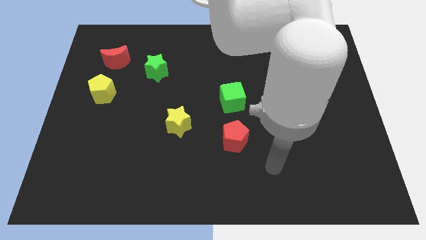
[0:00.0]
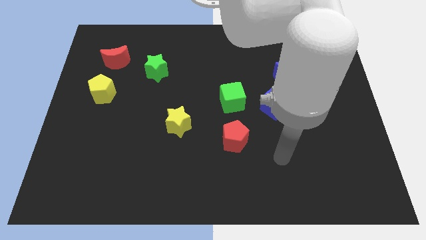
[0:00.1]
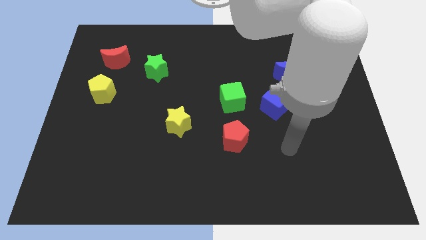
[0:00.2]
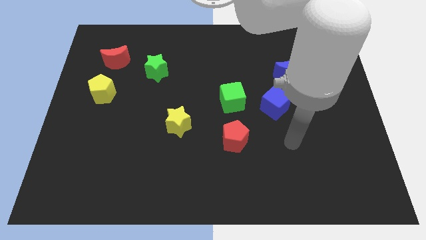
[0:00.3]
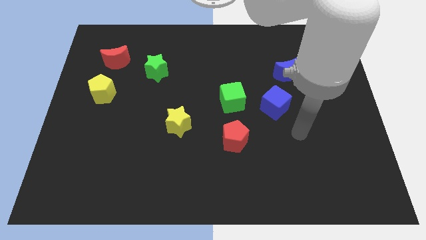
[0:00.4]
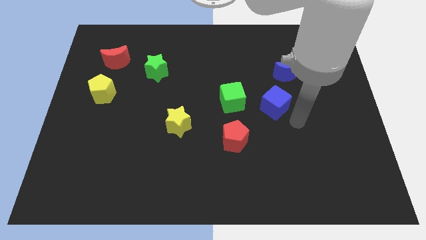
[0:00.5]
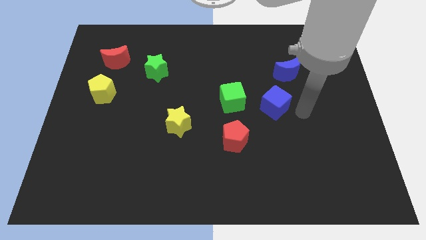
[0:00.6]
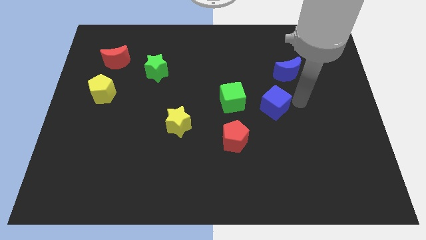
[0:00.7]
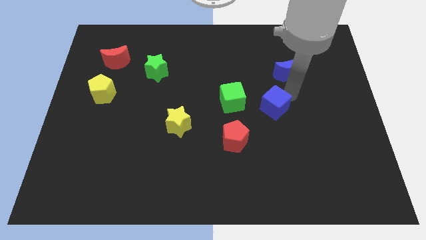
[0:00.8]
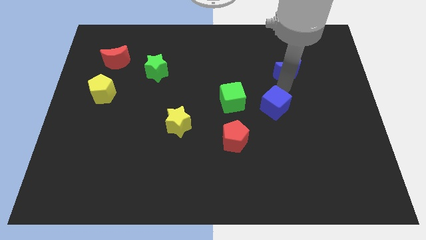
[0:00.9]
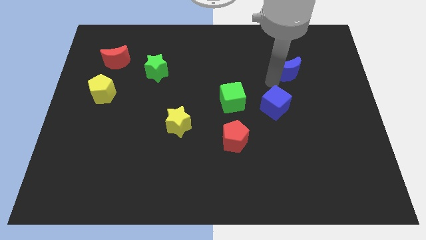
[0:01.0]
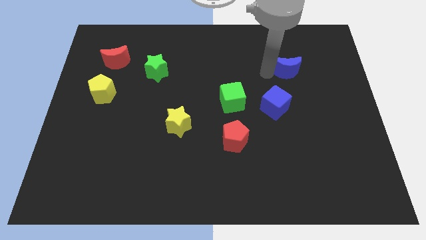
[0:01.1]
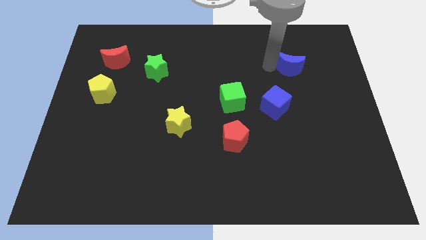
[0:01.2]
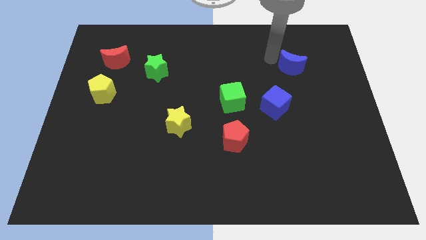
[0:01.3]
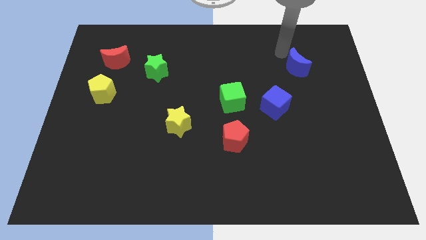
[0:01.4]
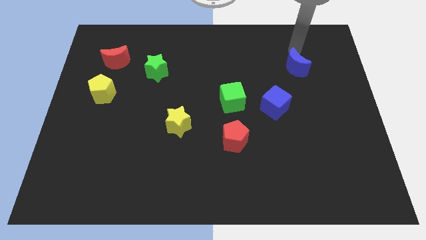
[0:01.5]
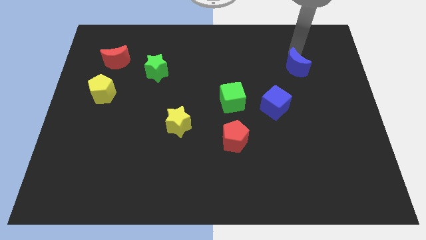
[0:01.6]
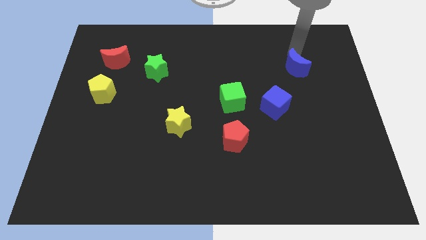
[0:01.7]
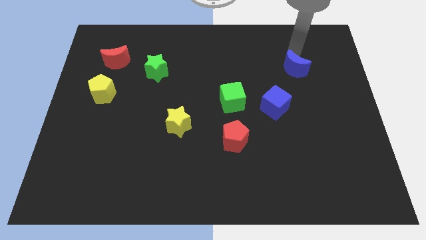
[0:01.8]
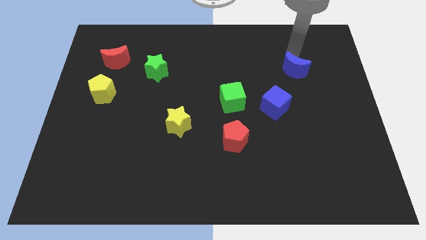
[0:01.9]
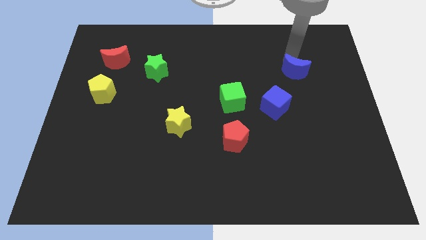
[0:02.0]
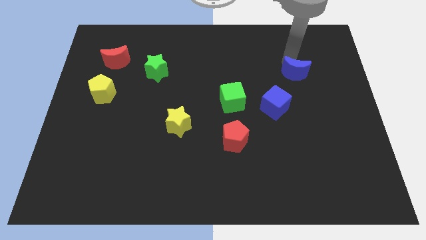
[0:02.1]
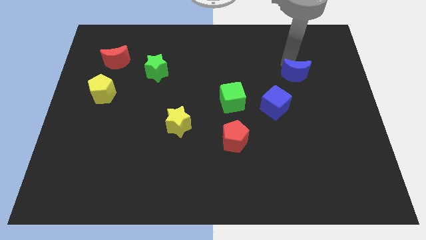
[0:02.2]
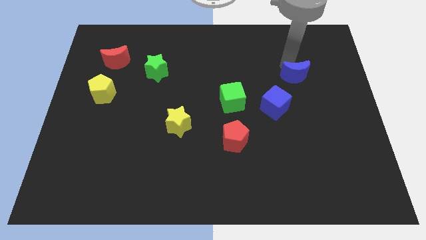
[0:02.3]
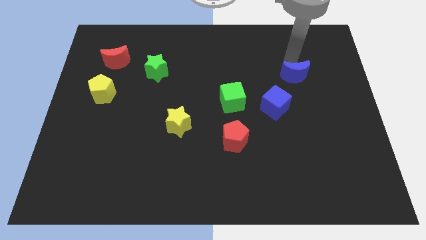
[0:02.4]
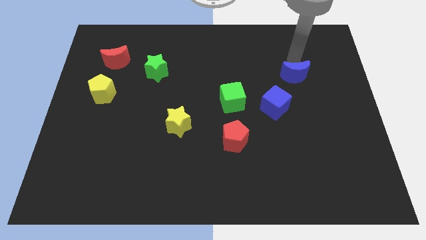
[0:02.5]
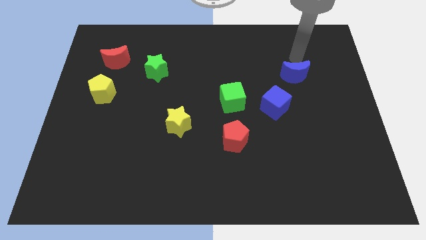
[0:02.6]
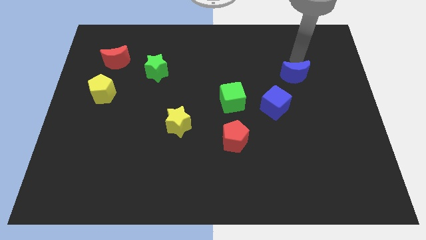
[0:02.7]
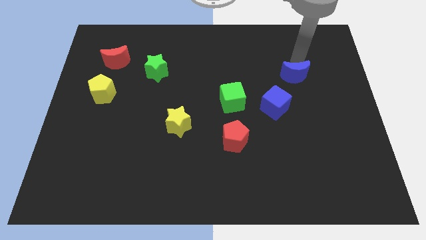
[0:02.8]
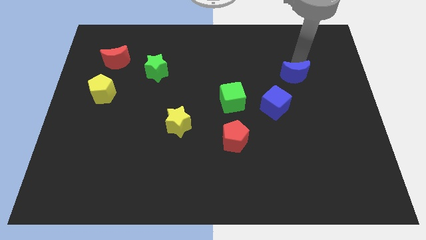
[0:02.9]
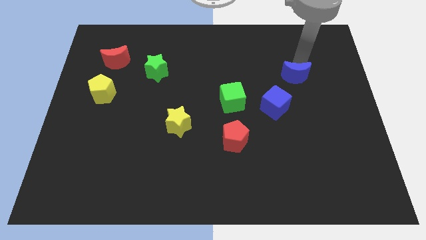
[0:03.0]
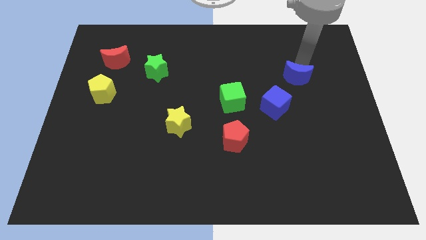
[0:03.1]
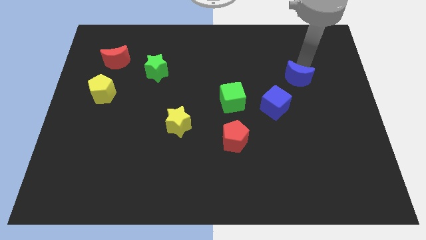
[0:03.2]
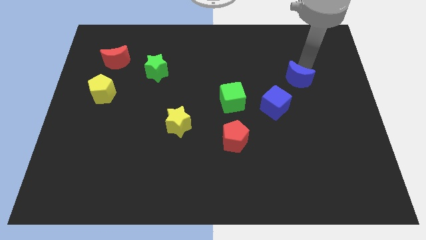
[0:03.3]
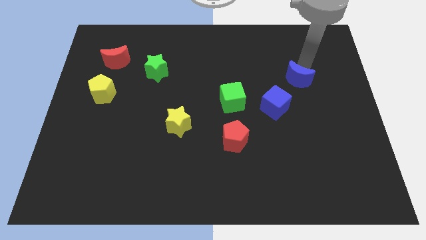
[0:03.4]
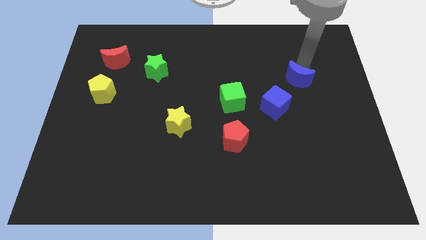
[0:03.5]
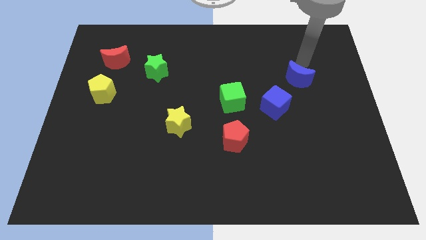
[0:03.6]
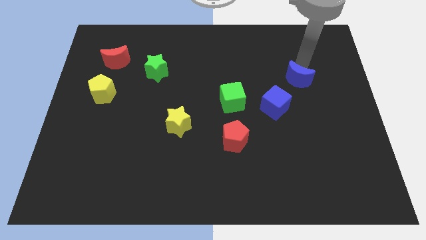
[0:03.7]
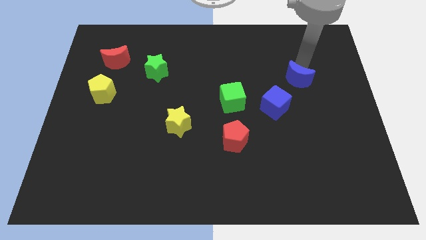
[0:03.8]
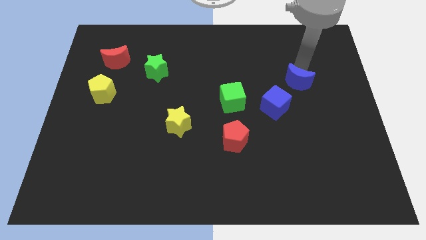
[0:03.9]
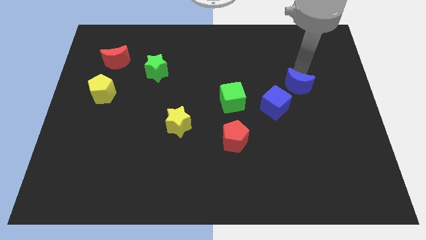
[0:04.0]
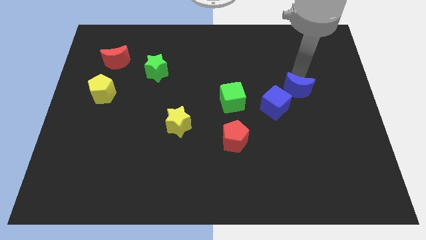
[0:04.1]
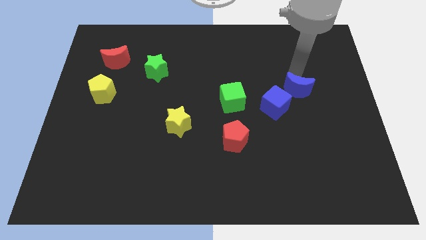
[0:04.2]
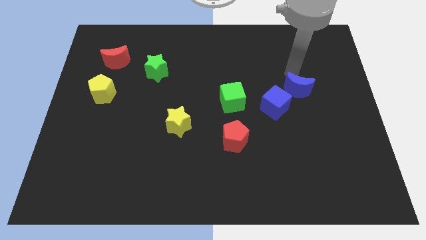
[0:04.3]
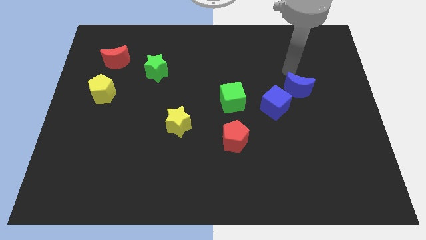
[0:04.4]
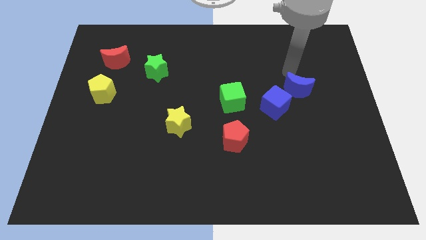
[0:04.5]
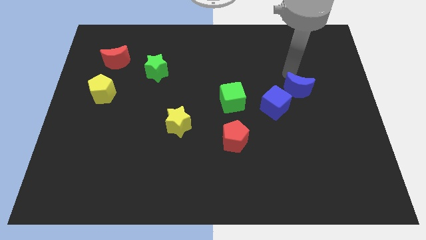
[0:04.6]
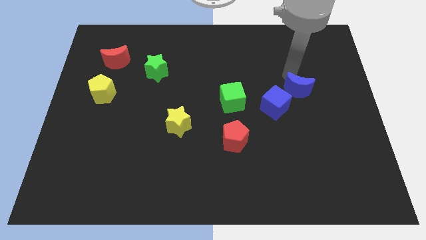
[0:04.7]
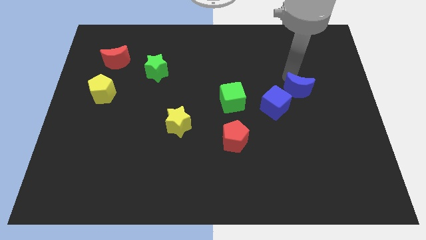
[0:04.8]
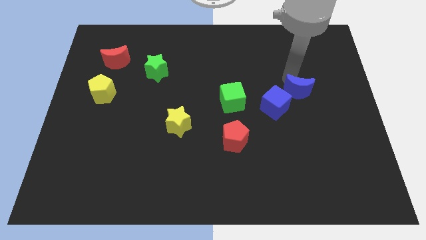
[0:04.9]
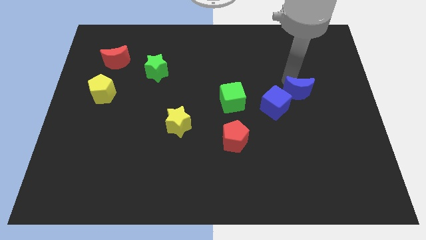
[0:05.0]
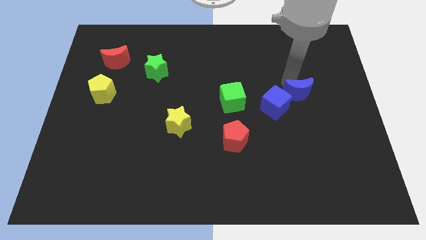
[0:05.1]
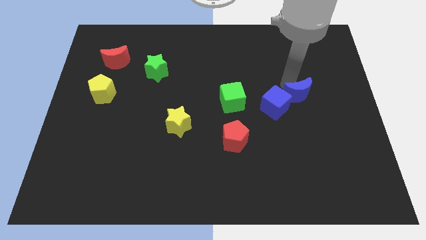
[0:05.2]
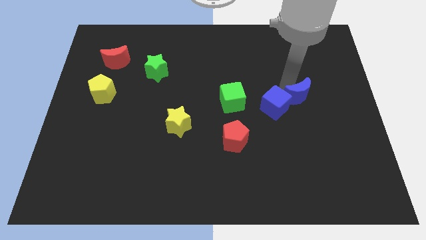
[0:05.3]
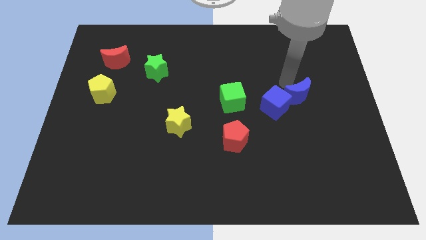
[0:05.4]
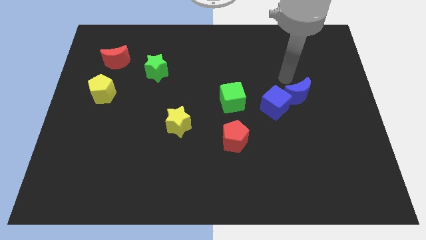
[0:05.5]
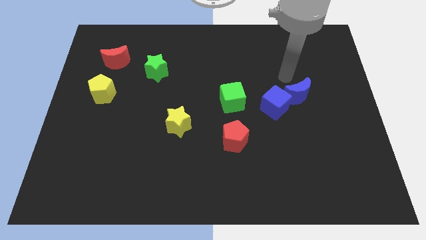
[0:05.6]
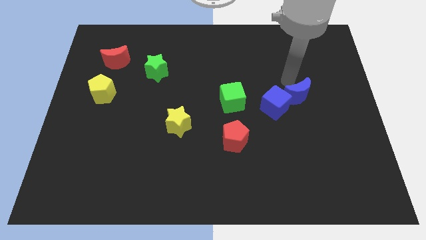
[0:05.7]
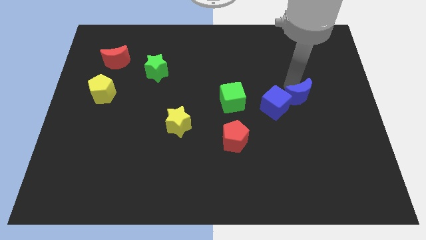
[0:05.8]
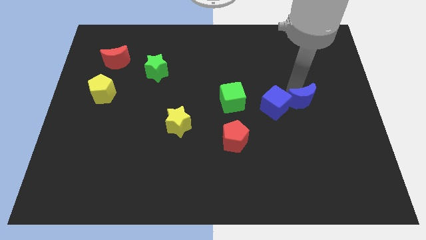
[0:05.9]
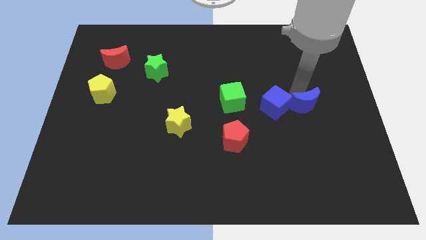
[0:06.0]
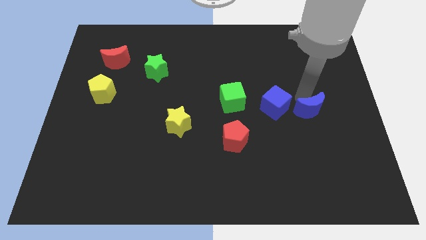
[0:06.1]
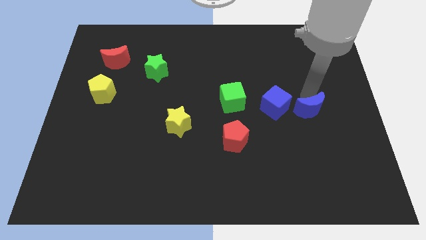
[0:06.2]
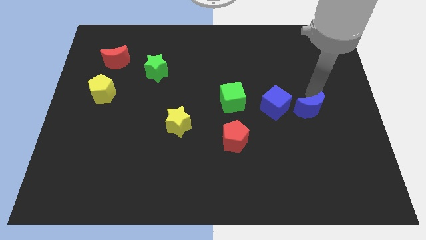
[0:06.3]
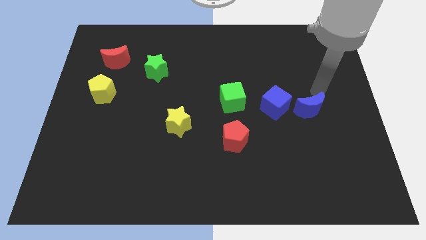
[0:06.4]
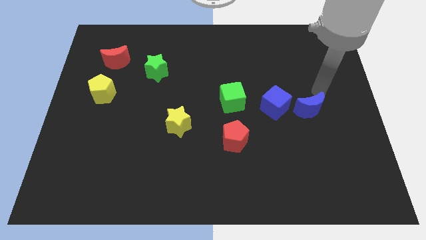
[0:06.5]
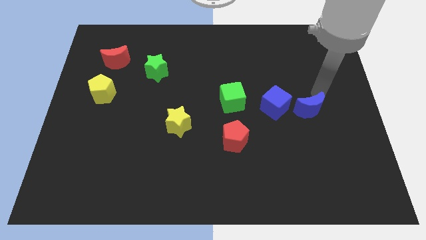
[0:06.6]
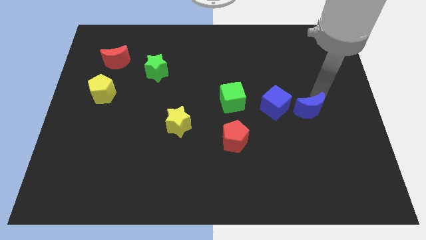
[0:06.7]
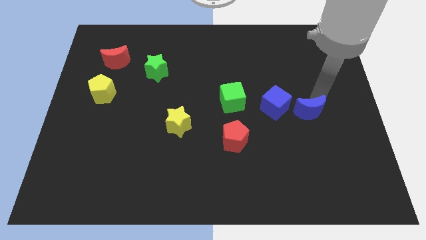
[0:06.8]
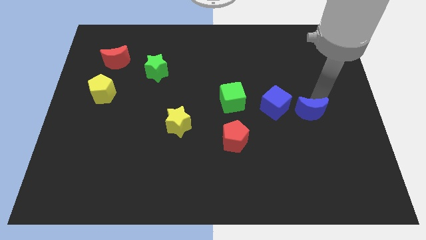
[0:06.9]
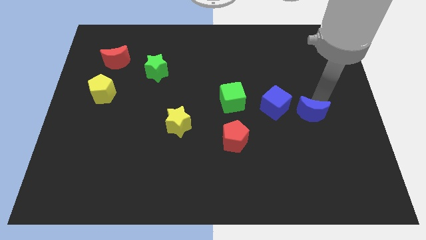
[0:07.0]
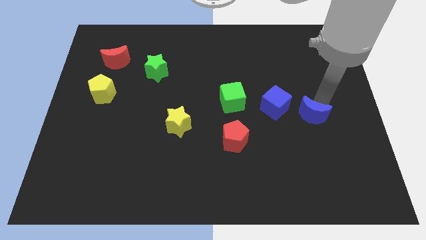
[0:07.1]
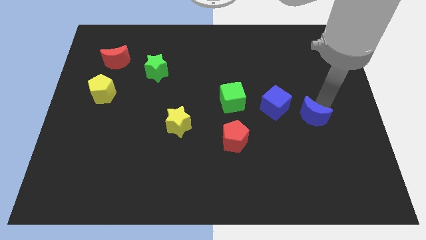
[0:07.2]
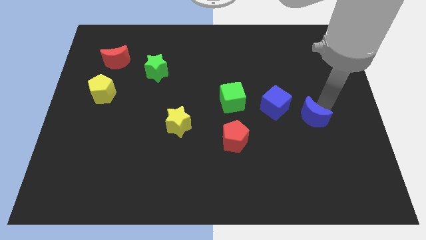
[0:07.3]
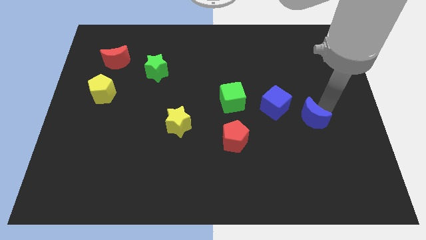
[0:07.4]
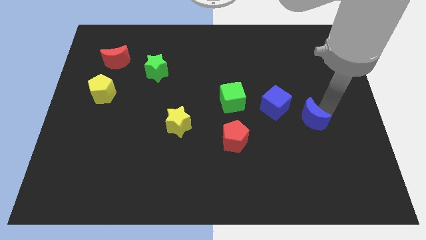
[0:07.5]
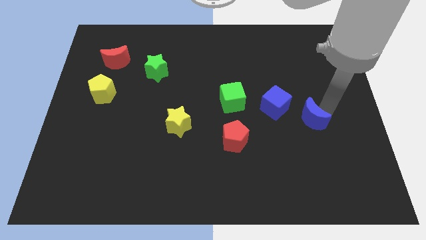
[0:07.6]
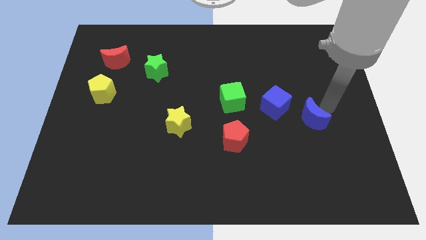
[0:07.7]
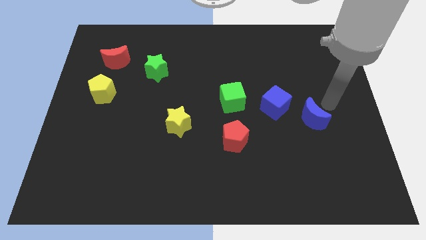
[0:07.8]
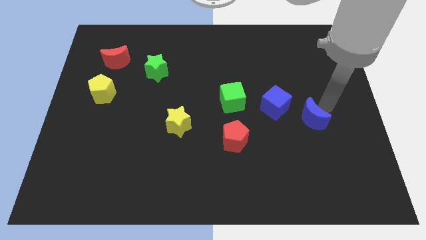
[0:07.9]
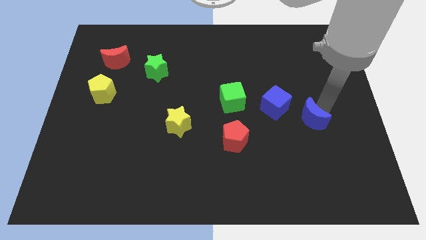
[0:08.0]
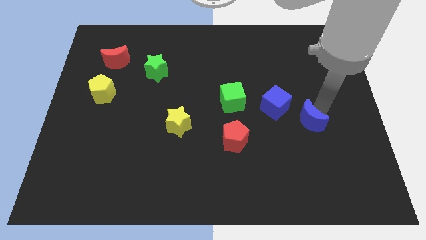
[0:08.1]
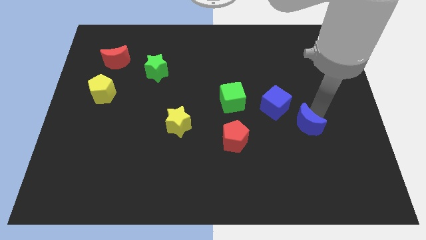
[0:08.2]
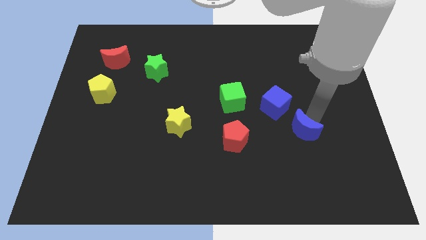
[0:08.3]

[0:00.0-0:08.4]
slide the blue moon to the right of the red pentagon
